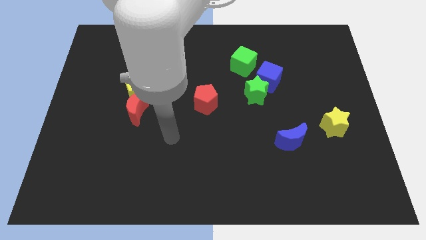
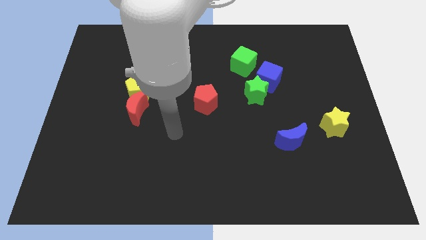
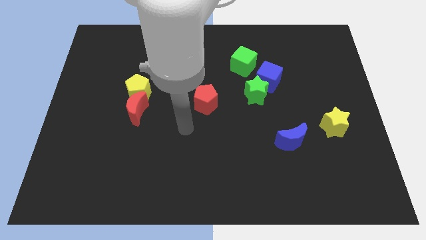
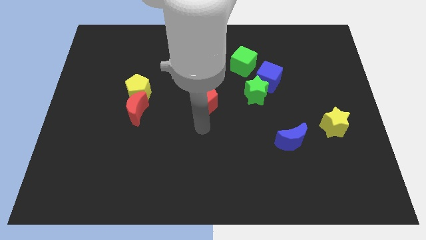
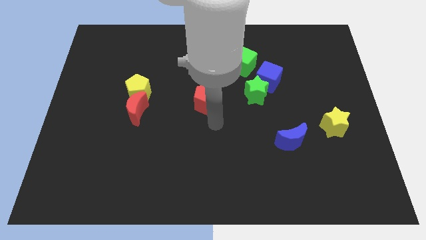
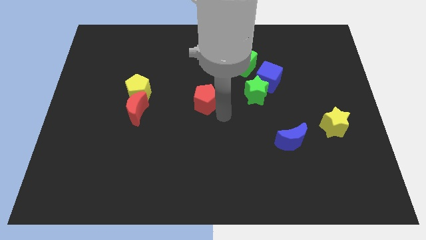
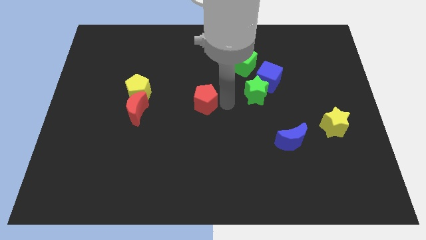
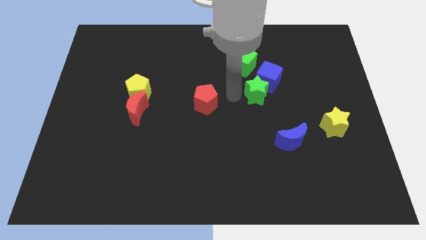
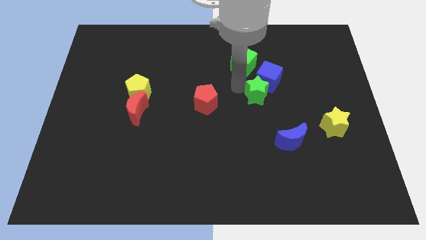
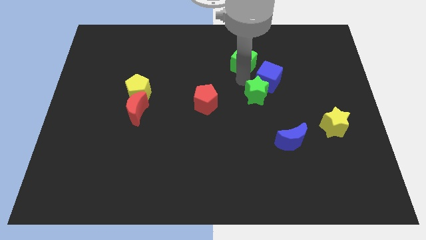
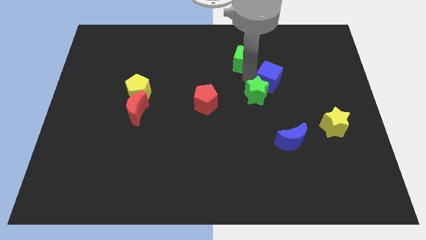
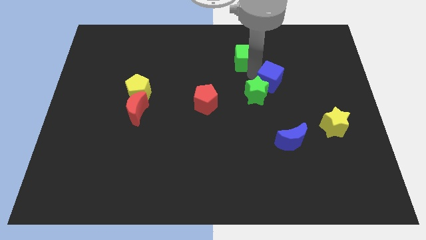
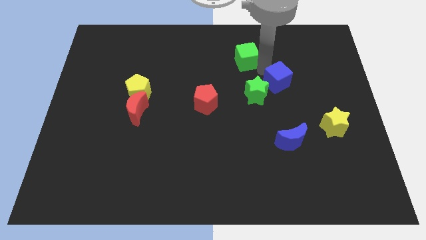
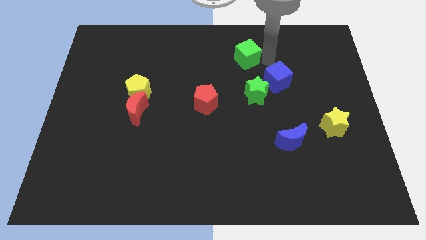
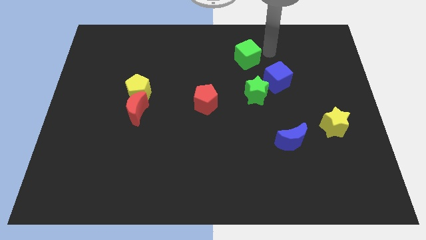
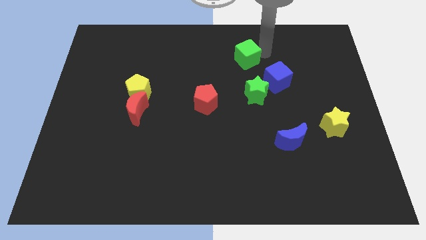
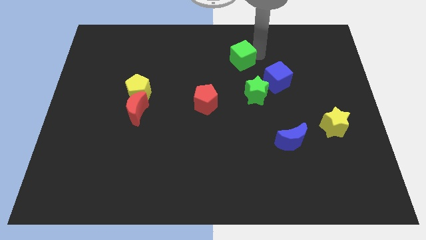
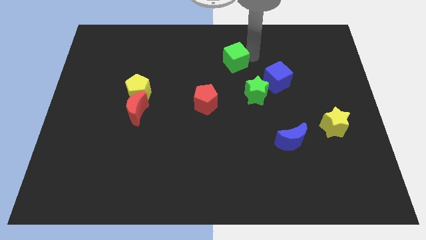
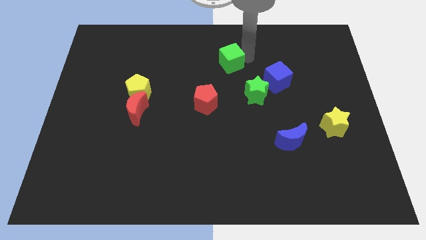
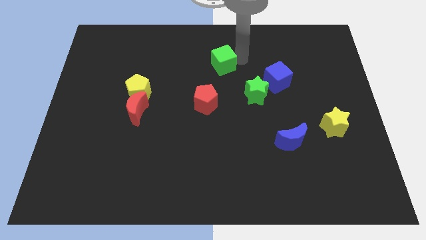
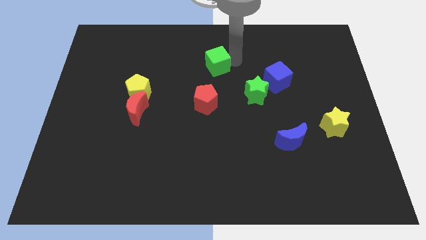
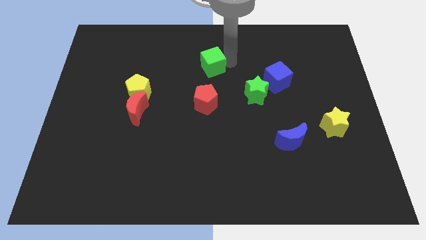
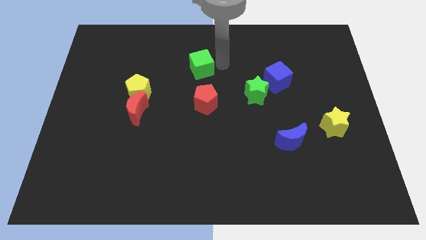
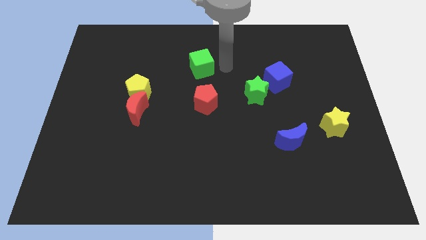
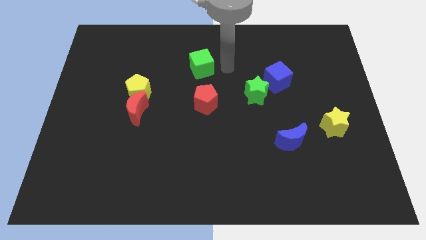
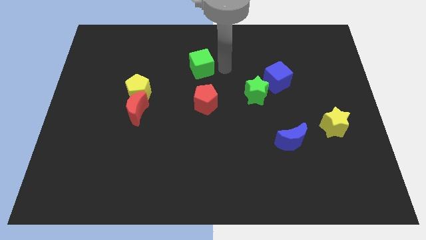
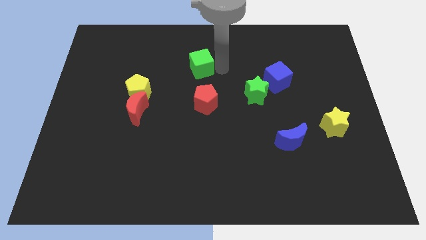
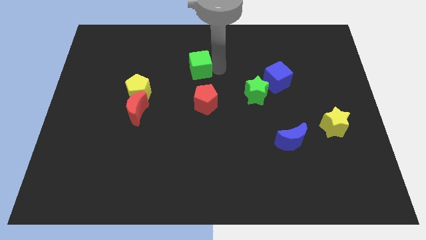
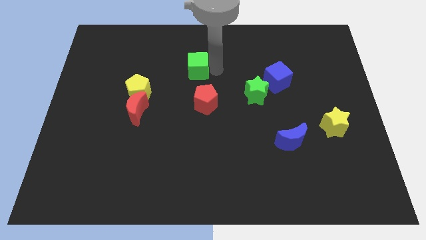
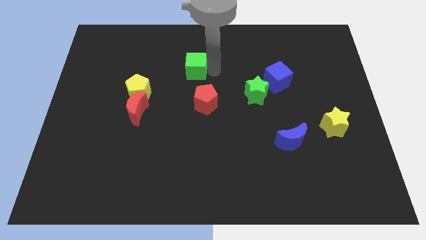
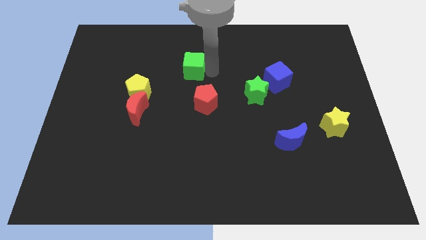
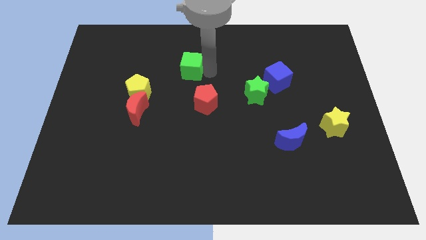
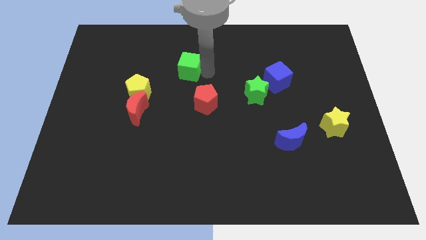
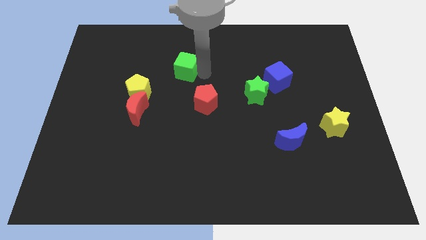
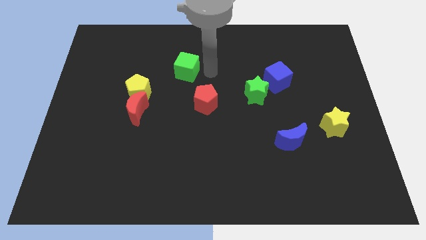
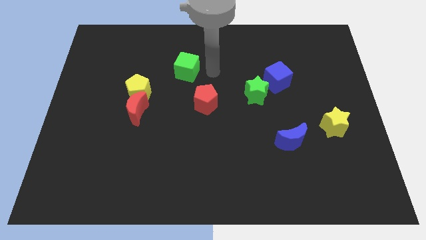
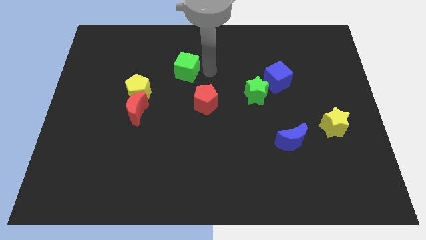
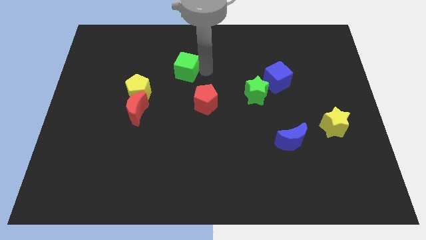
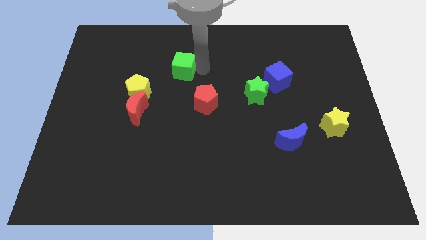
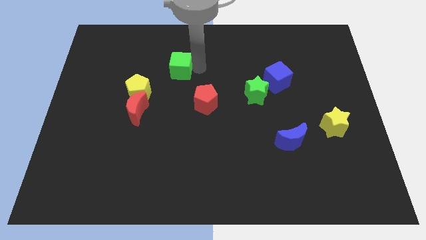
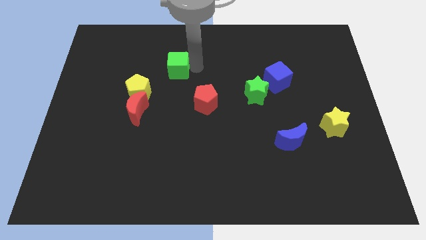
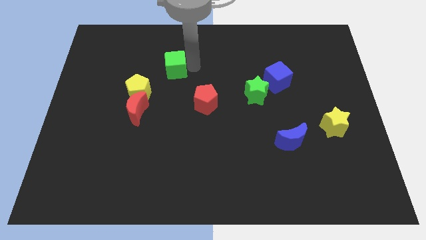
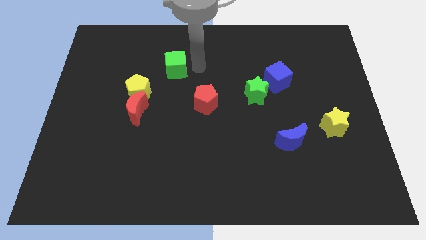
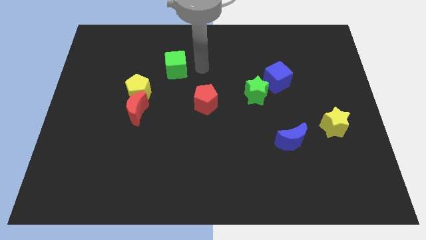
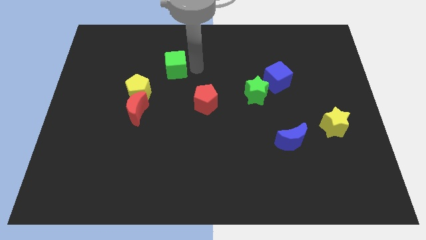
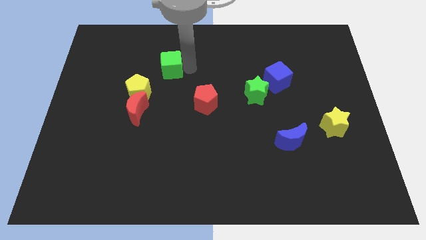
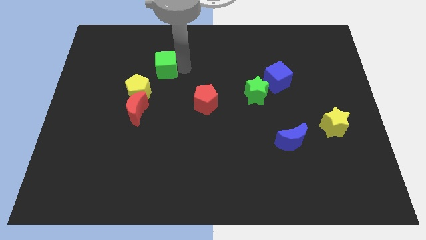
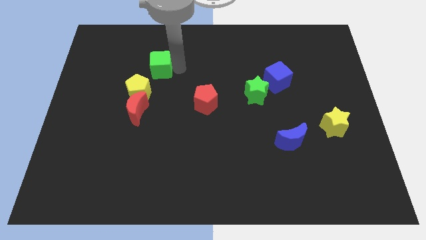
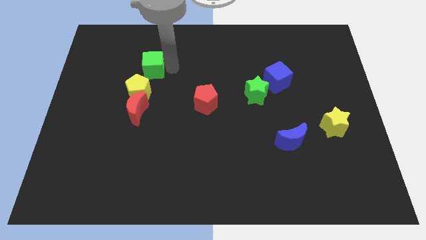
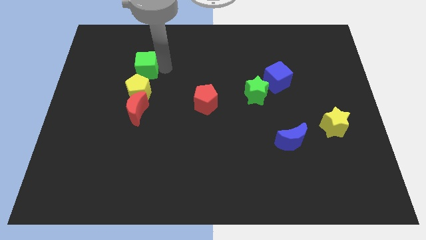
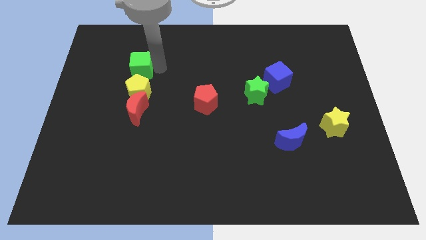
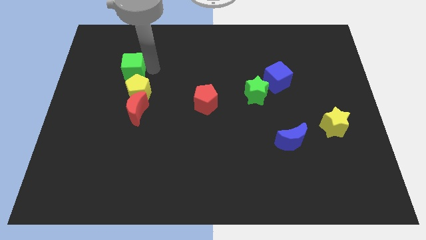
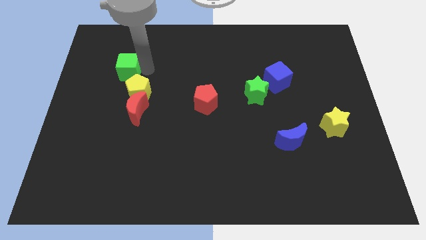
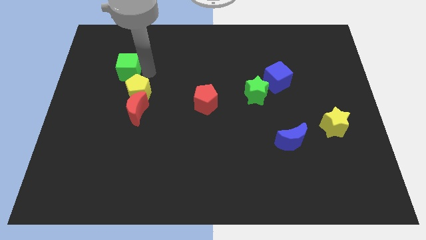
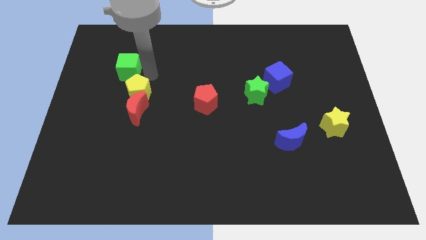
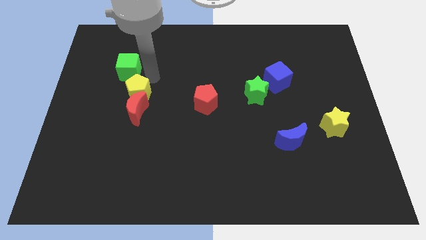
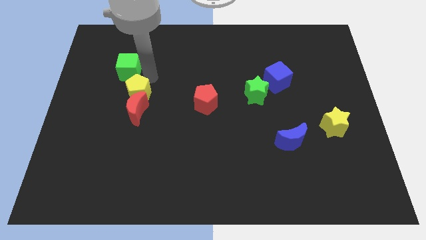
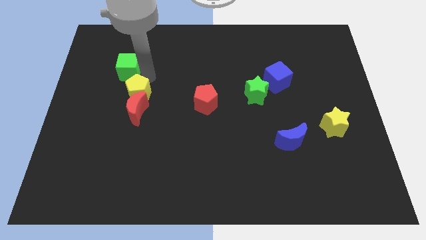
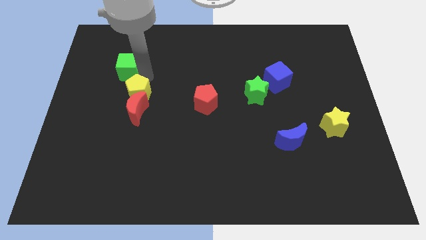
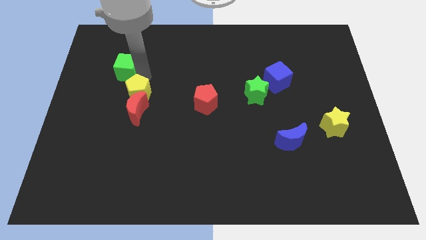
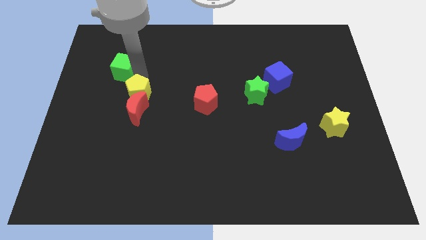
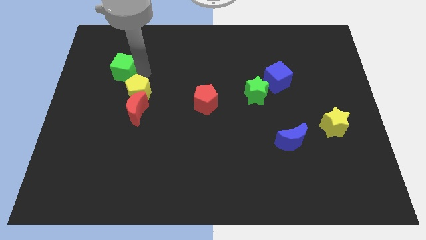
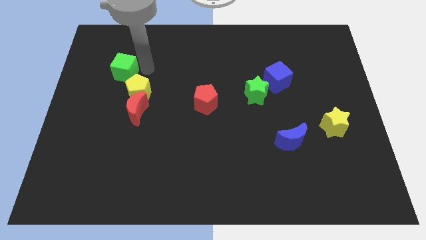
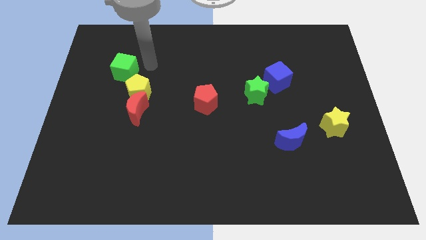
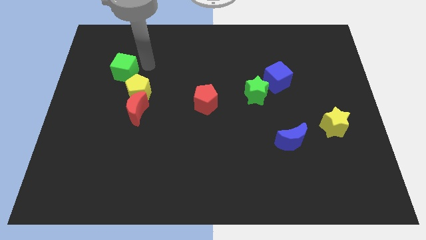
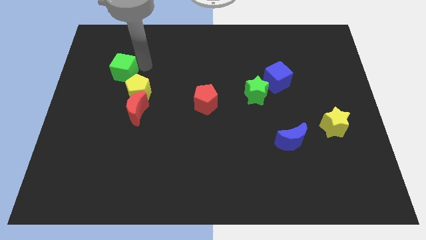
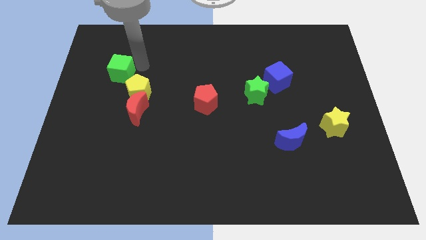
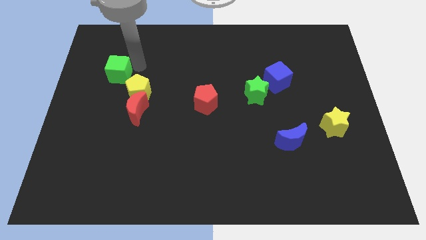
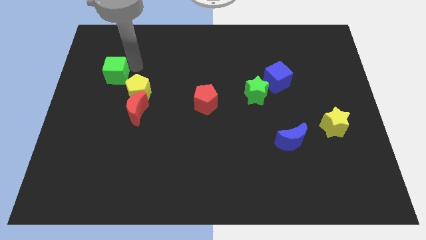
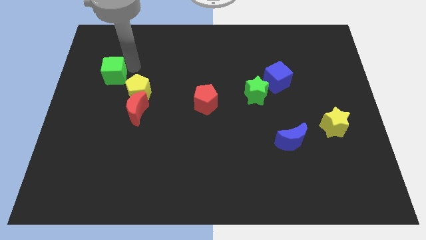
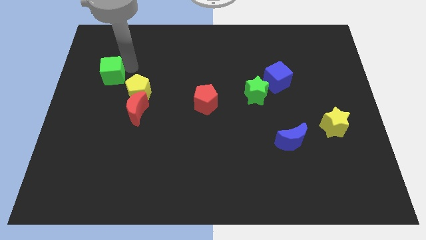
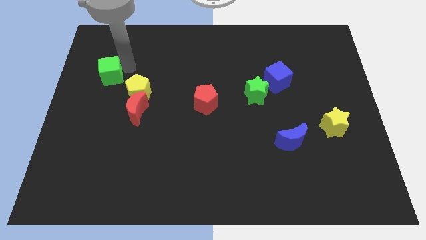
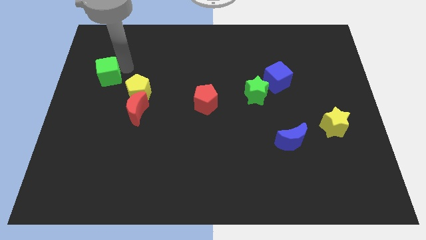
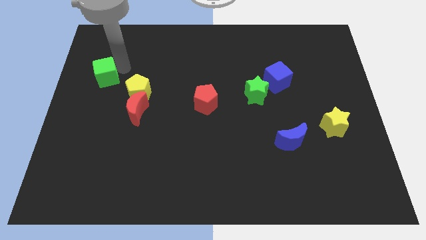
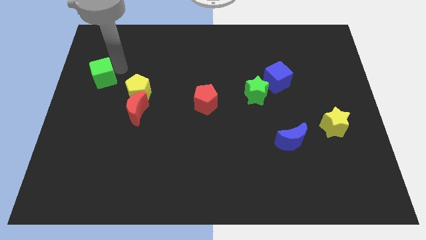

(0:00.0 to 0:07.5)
move the green cube to the left side of the board
